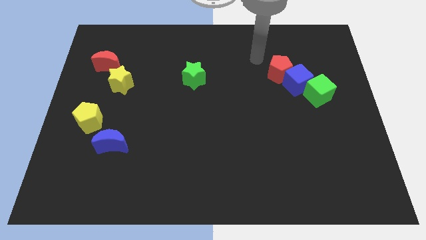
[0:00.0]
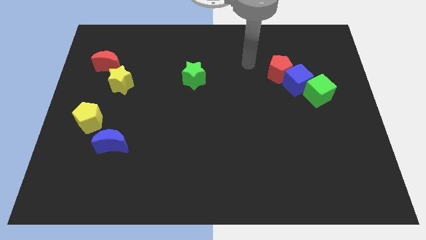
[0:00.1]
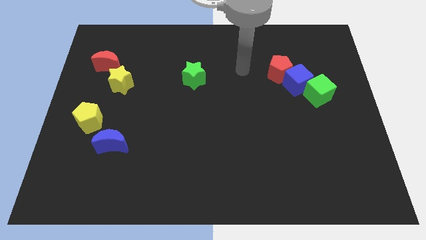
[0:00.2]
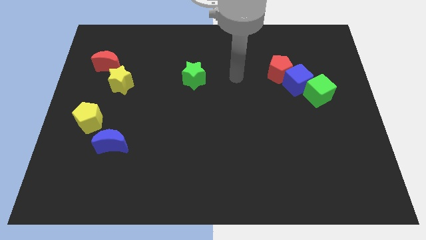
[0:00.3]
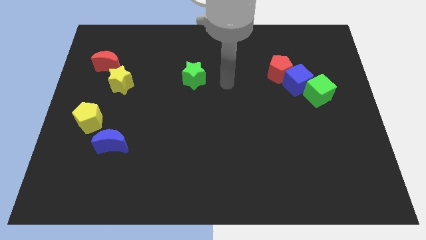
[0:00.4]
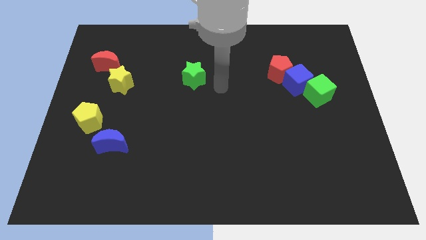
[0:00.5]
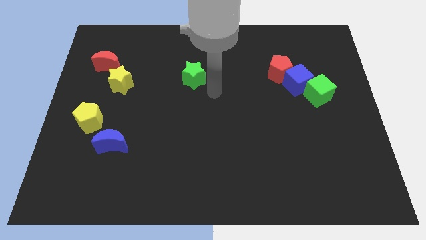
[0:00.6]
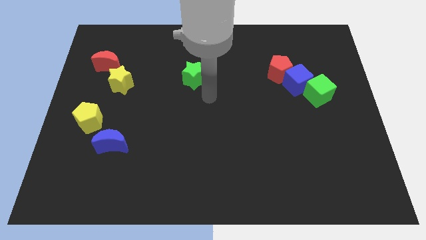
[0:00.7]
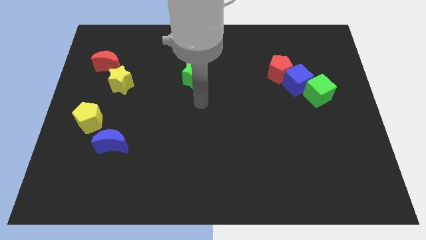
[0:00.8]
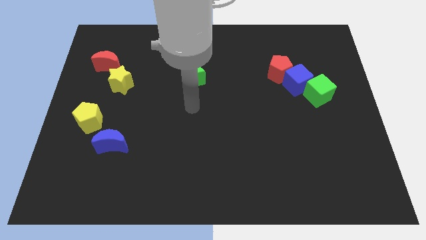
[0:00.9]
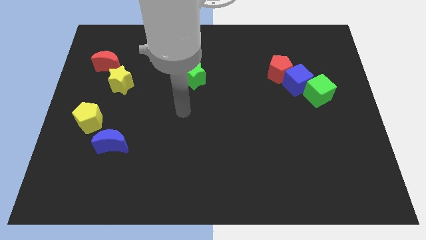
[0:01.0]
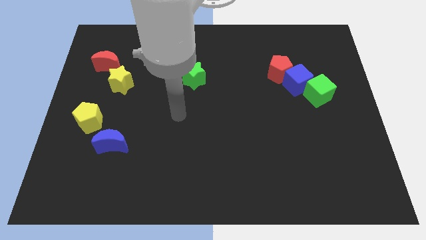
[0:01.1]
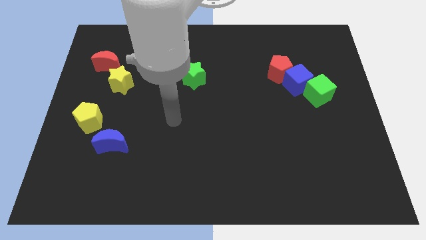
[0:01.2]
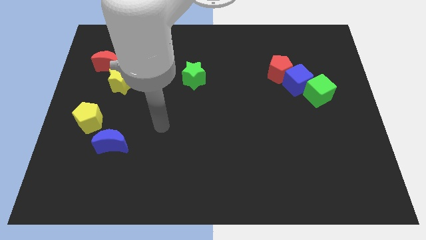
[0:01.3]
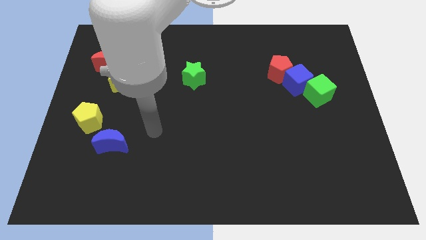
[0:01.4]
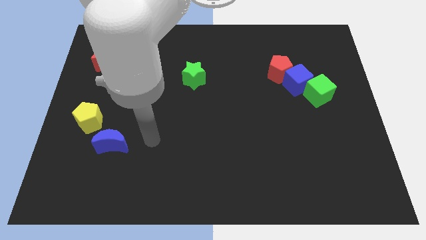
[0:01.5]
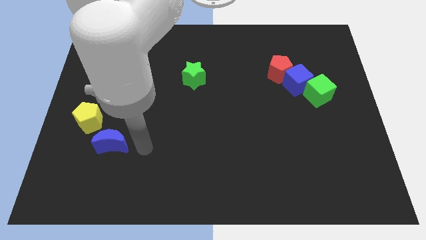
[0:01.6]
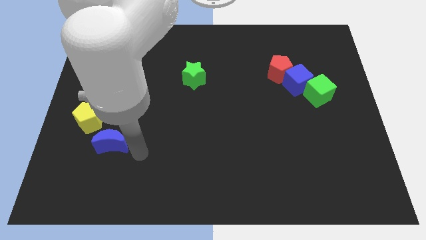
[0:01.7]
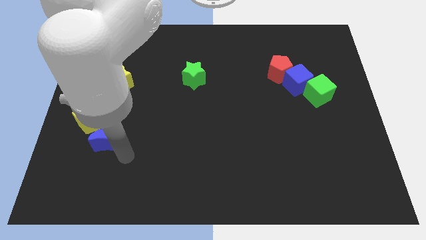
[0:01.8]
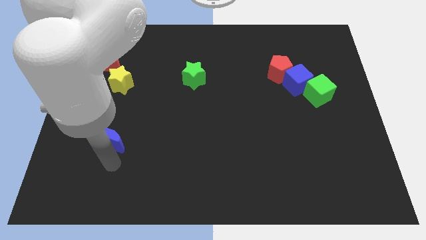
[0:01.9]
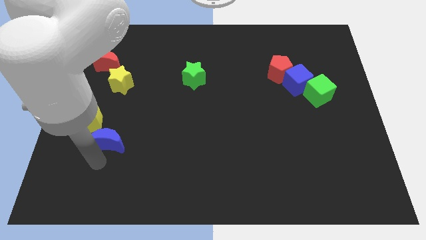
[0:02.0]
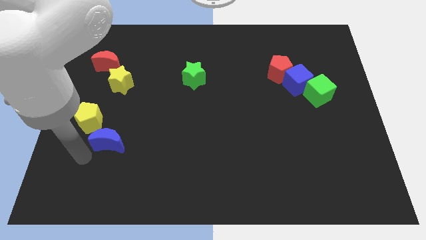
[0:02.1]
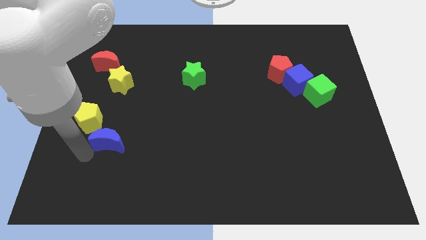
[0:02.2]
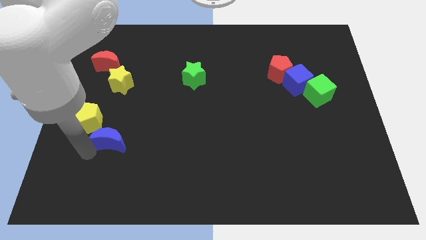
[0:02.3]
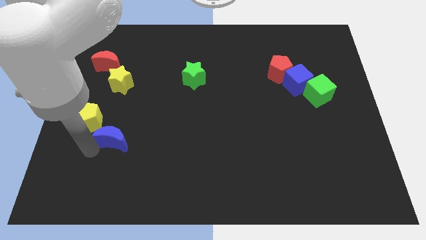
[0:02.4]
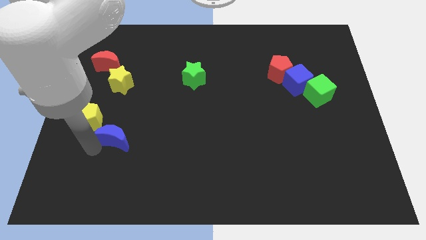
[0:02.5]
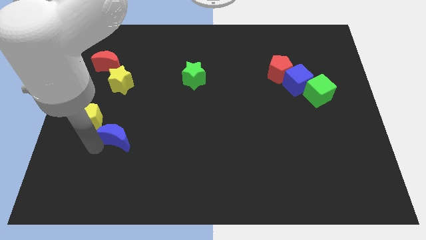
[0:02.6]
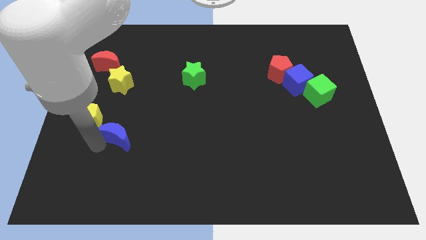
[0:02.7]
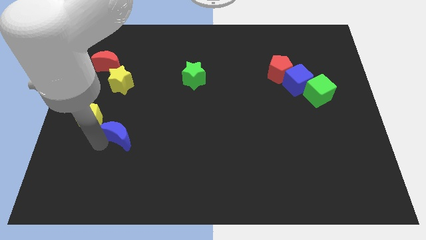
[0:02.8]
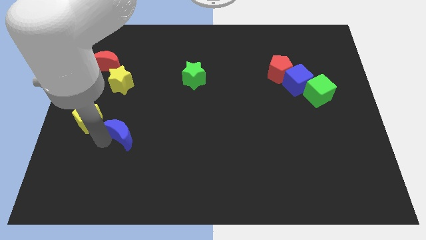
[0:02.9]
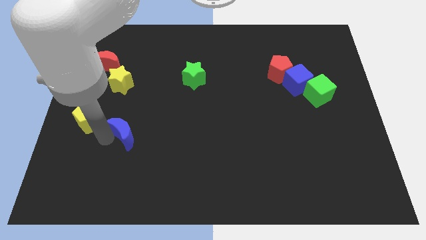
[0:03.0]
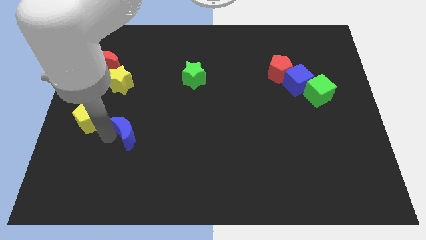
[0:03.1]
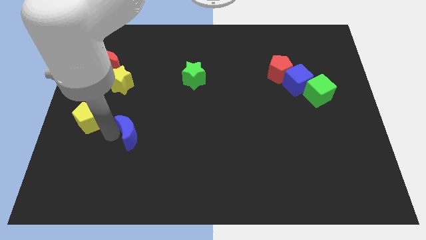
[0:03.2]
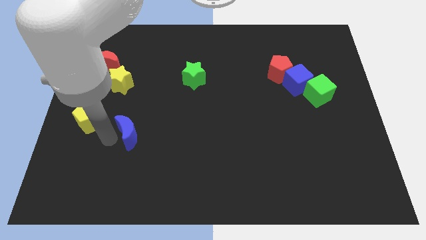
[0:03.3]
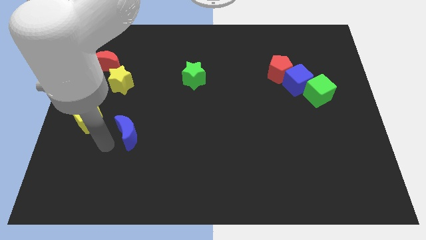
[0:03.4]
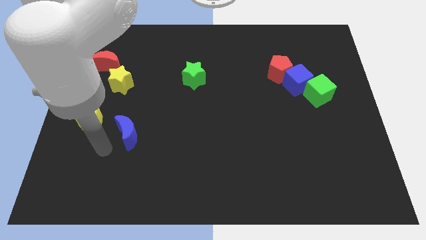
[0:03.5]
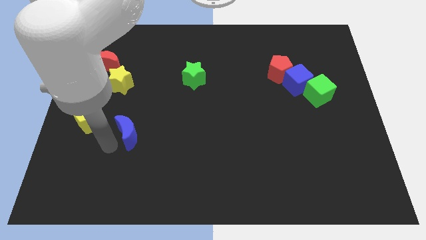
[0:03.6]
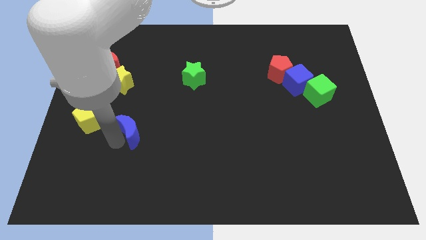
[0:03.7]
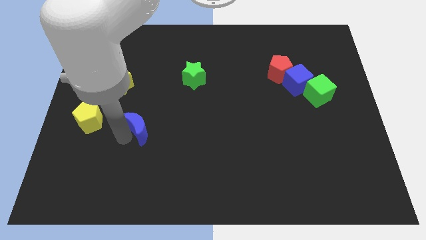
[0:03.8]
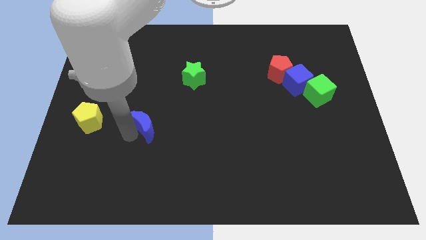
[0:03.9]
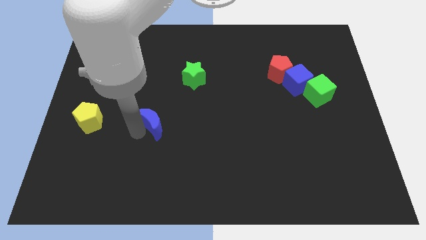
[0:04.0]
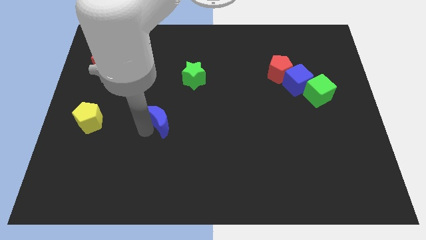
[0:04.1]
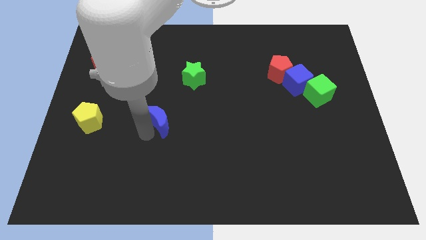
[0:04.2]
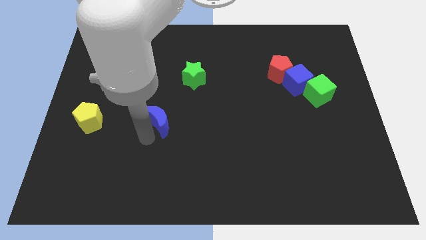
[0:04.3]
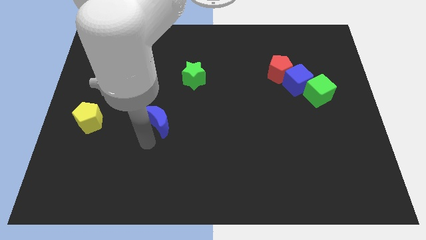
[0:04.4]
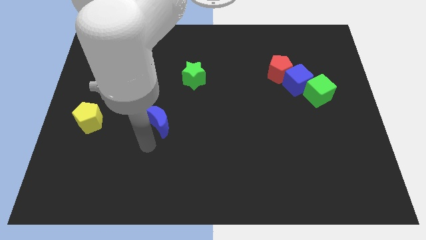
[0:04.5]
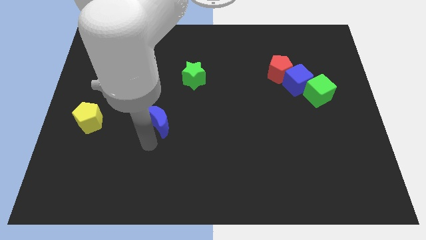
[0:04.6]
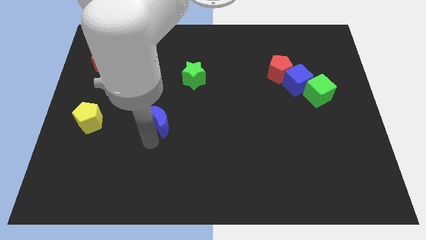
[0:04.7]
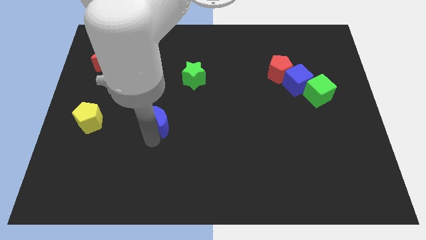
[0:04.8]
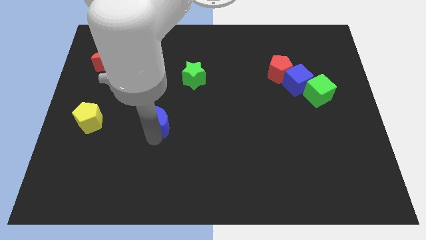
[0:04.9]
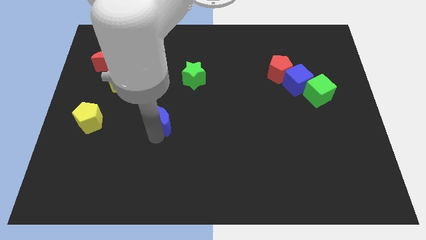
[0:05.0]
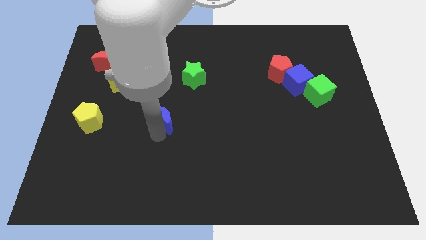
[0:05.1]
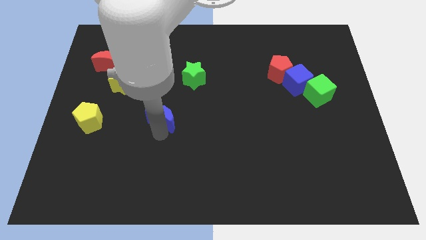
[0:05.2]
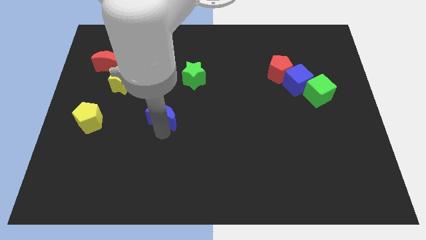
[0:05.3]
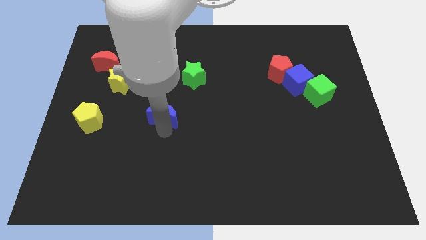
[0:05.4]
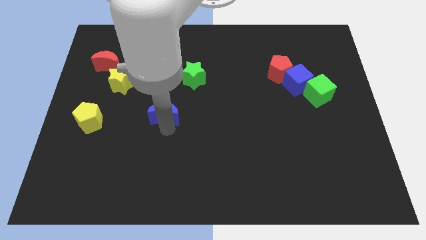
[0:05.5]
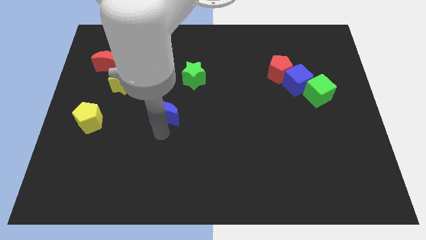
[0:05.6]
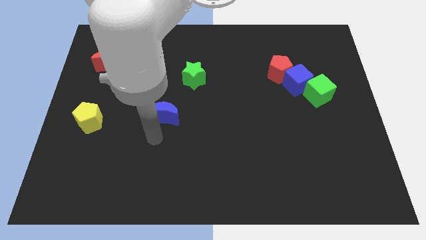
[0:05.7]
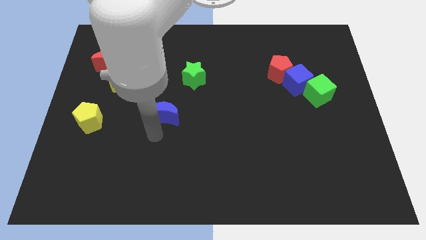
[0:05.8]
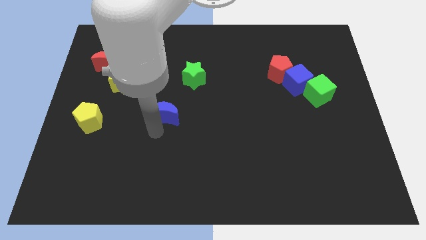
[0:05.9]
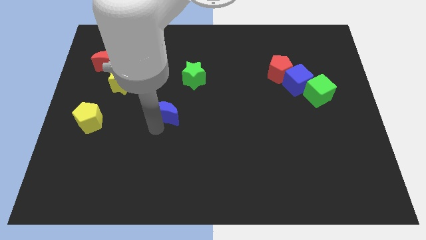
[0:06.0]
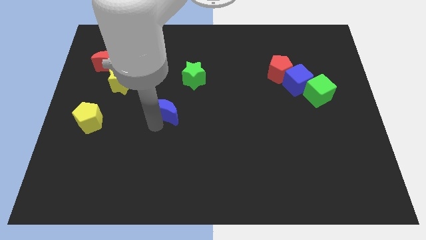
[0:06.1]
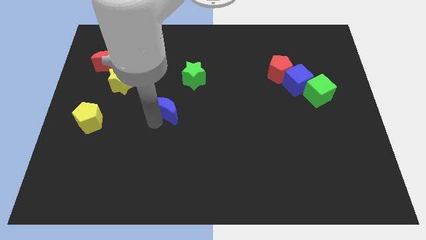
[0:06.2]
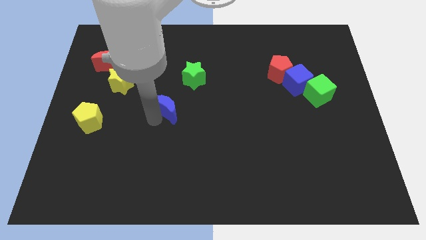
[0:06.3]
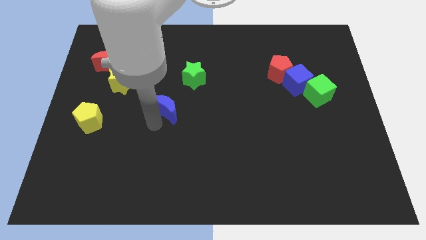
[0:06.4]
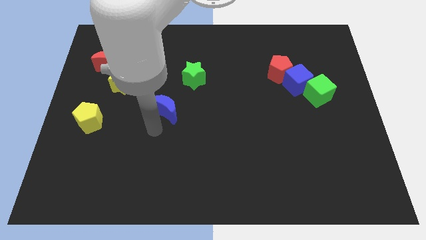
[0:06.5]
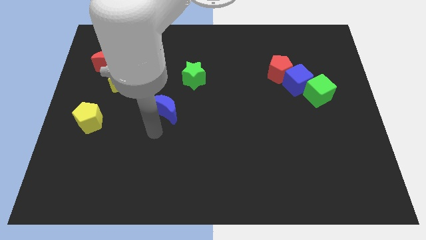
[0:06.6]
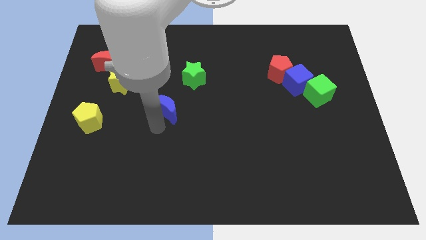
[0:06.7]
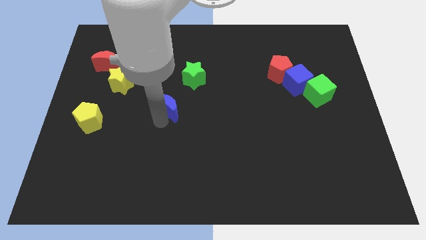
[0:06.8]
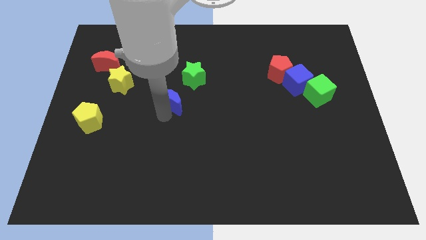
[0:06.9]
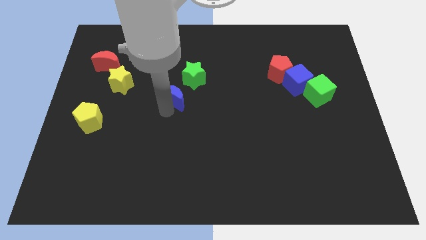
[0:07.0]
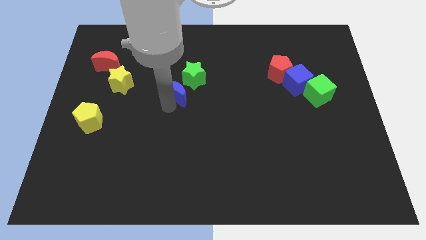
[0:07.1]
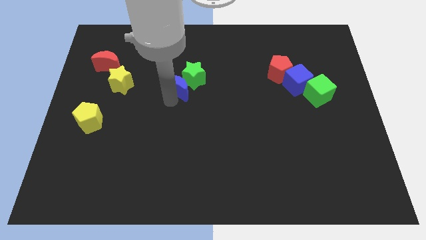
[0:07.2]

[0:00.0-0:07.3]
put the blue moon next to the green star

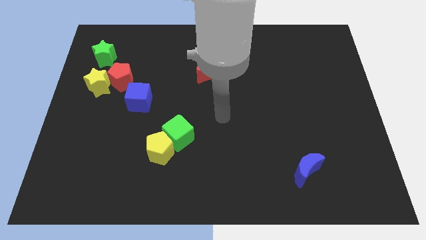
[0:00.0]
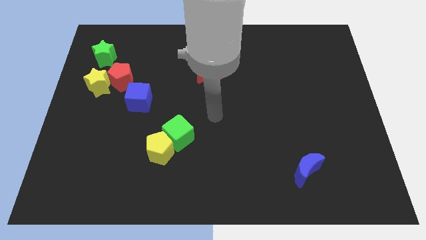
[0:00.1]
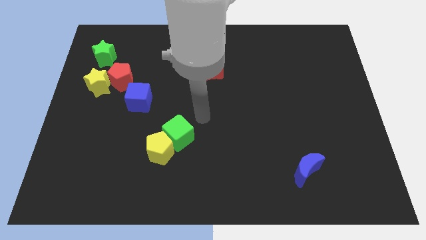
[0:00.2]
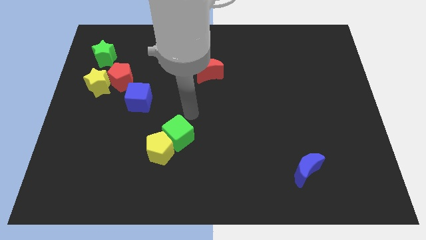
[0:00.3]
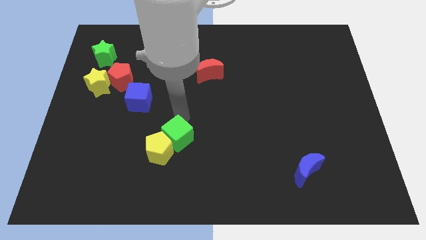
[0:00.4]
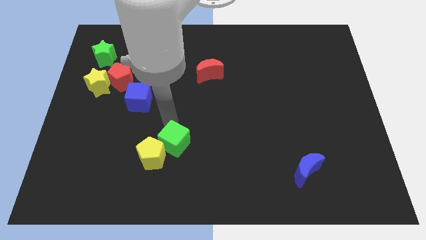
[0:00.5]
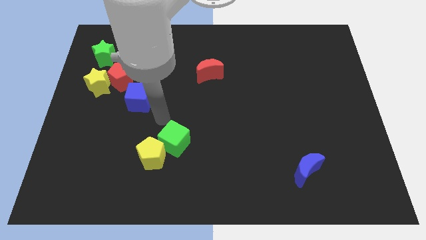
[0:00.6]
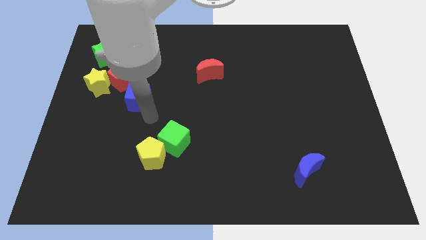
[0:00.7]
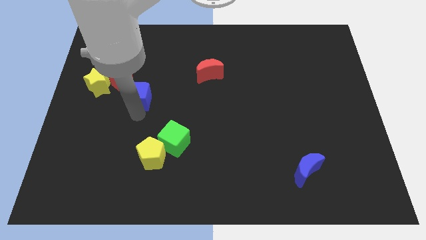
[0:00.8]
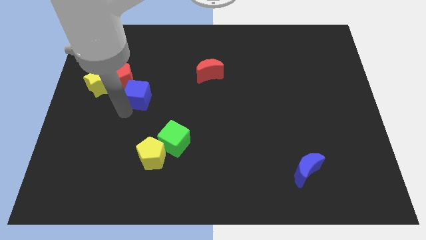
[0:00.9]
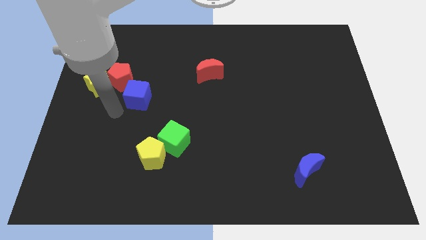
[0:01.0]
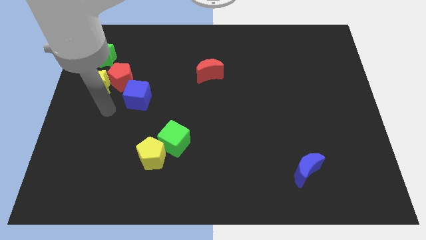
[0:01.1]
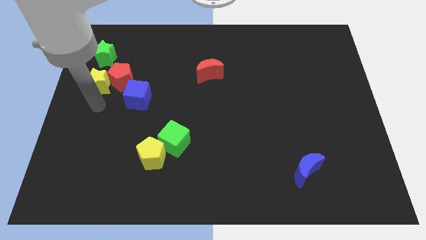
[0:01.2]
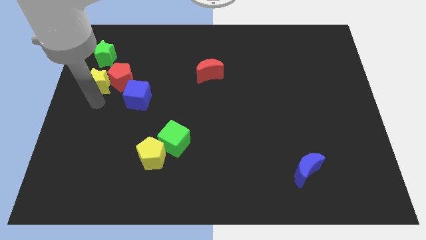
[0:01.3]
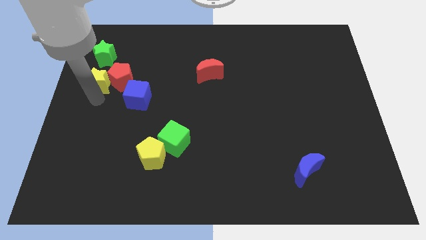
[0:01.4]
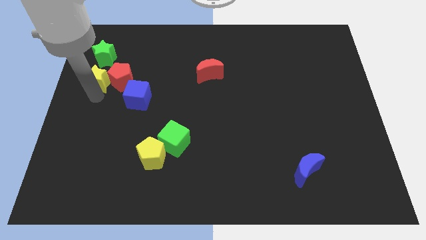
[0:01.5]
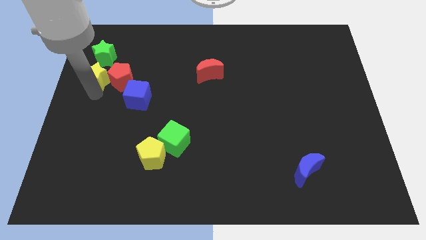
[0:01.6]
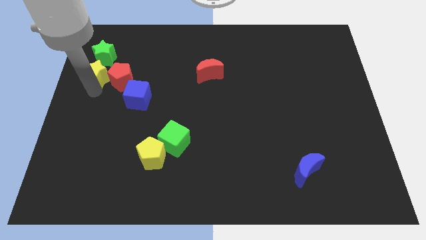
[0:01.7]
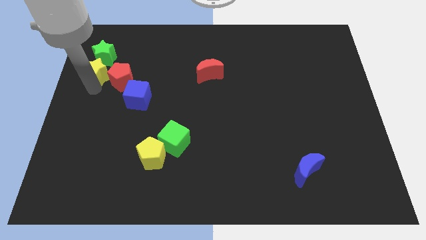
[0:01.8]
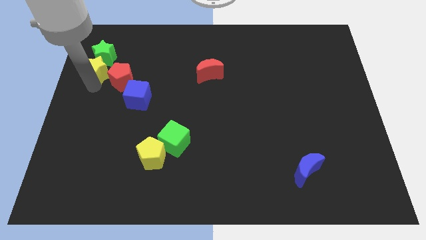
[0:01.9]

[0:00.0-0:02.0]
push the yellow star close to the green star
